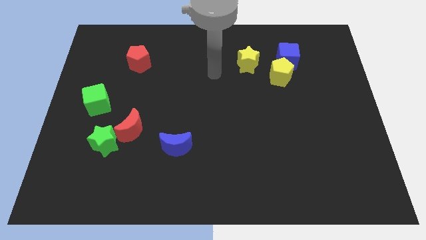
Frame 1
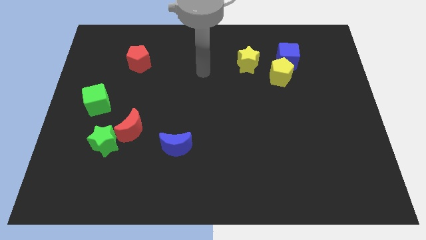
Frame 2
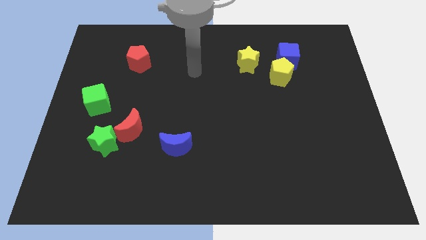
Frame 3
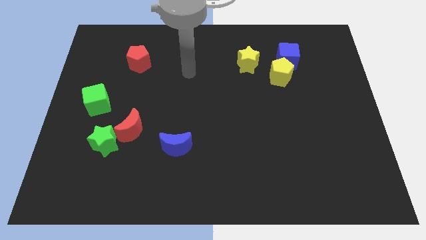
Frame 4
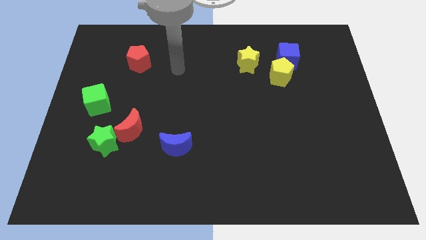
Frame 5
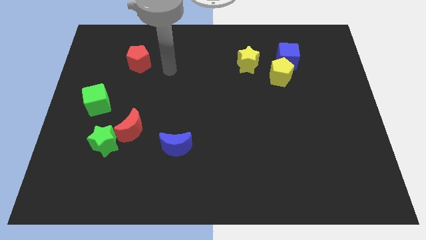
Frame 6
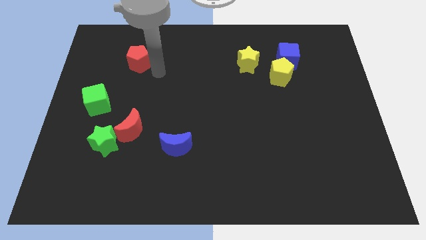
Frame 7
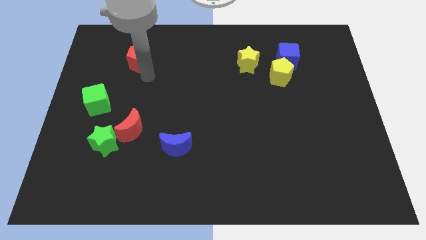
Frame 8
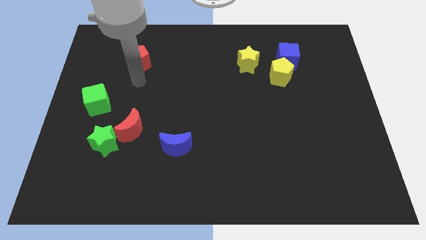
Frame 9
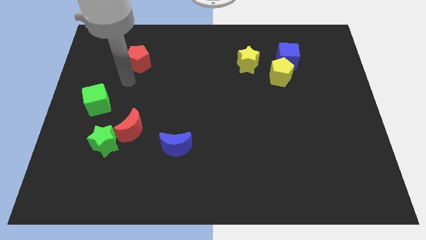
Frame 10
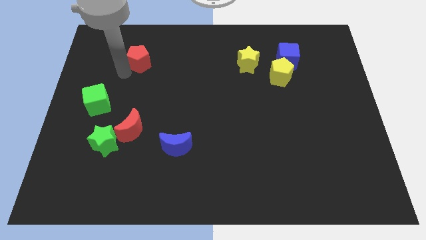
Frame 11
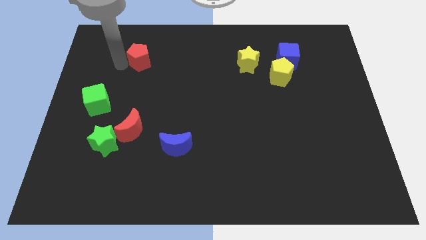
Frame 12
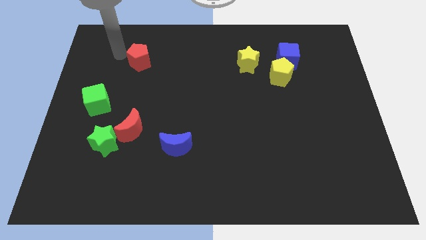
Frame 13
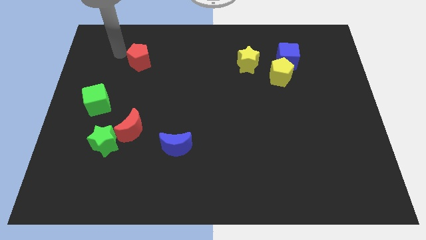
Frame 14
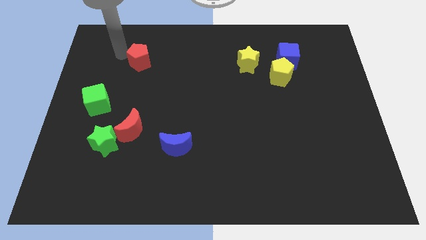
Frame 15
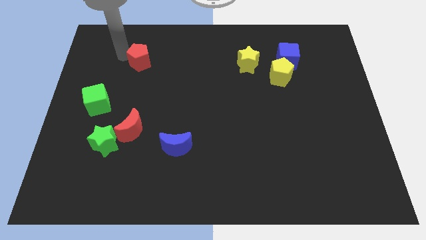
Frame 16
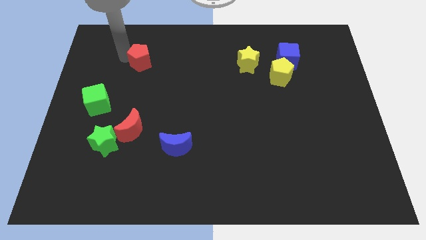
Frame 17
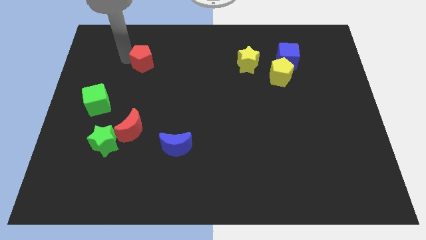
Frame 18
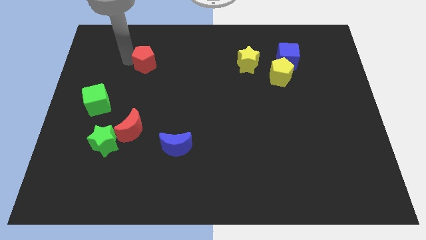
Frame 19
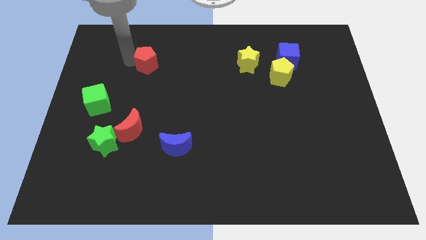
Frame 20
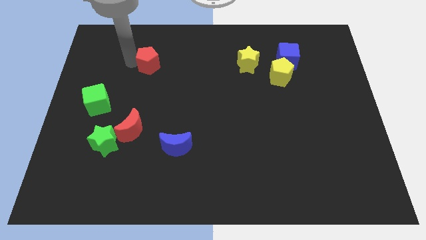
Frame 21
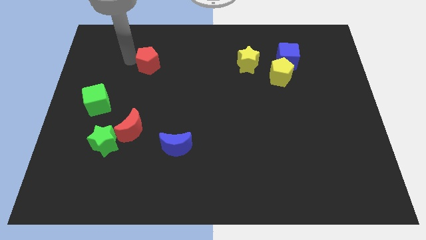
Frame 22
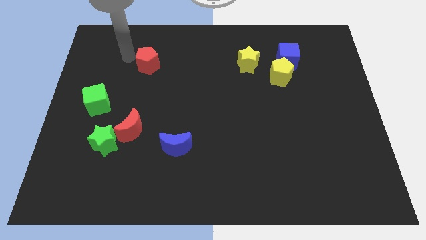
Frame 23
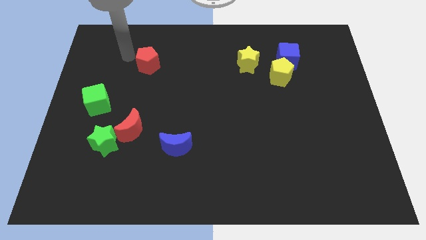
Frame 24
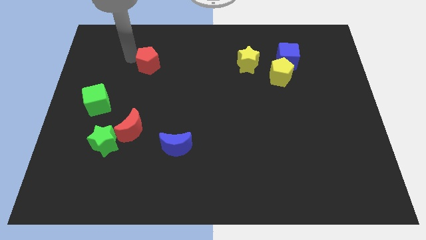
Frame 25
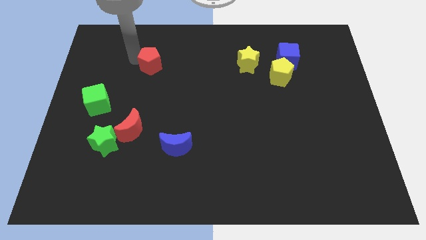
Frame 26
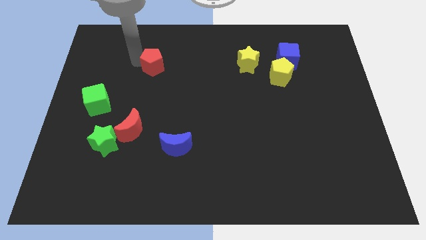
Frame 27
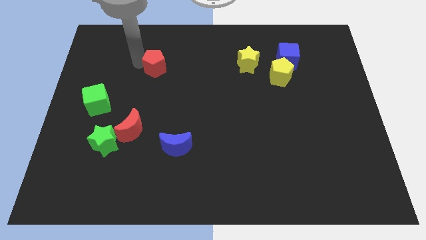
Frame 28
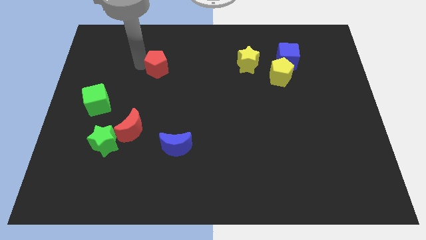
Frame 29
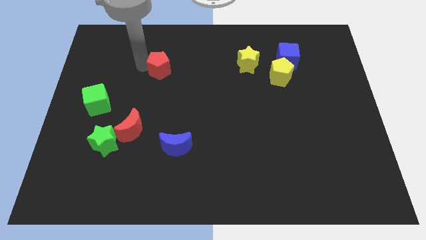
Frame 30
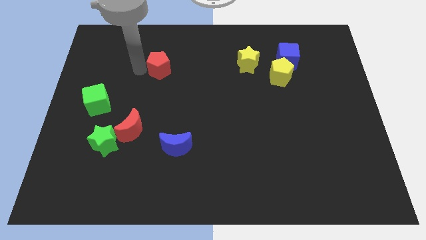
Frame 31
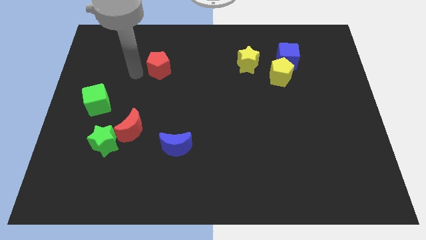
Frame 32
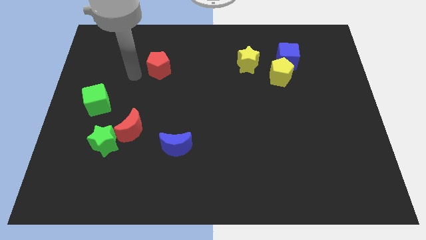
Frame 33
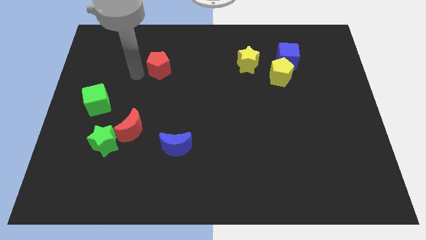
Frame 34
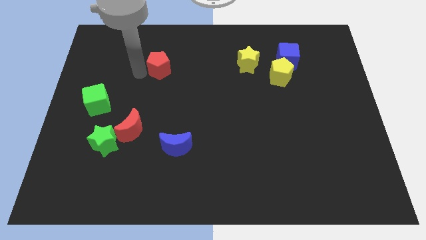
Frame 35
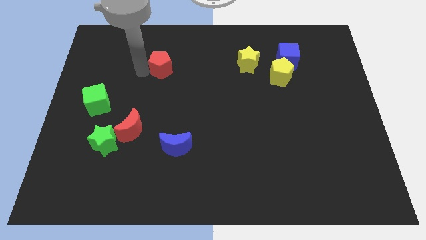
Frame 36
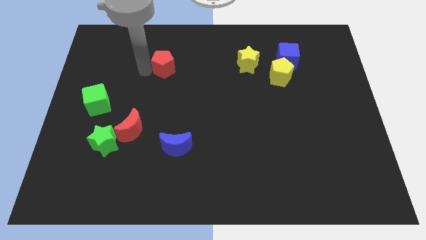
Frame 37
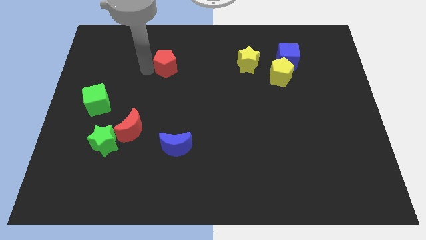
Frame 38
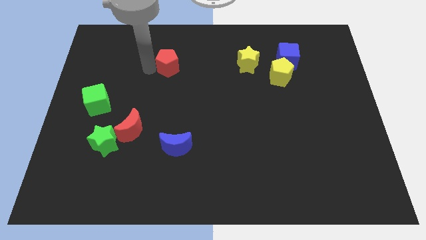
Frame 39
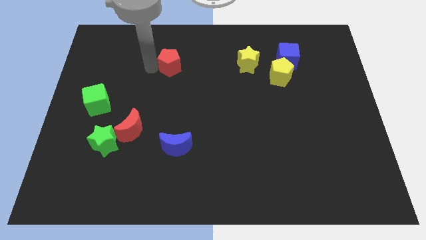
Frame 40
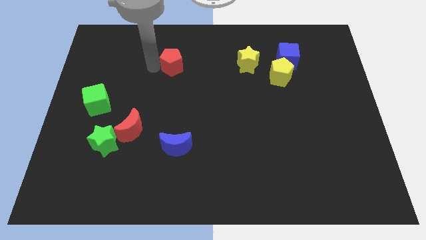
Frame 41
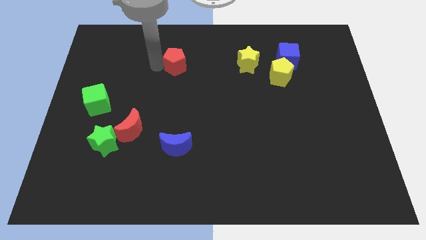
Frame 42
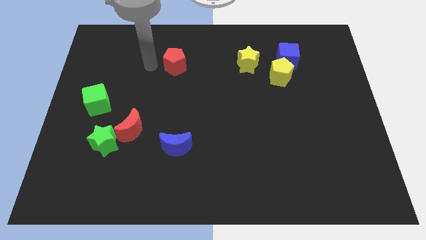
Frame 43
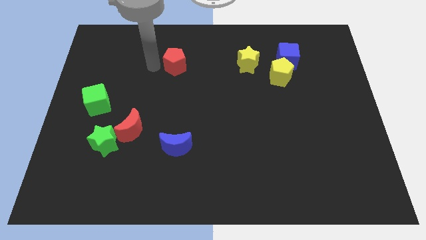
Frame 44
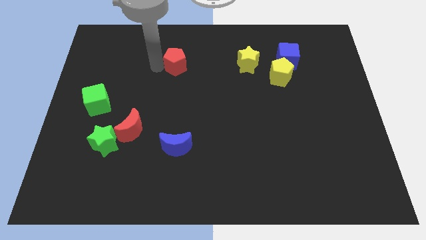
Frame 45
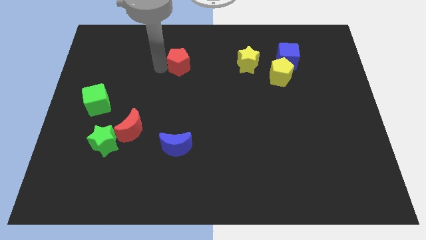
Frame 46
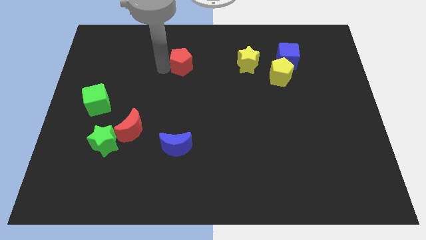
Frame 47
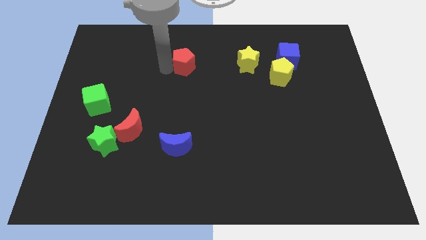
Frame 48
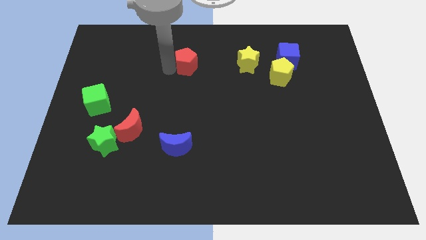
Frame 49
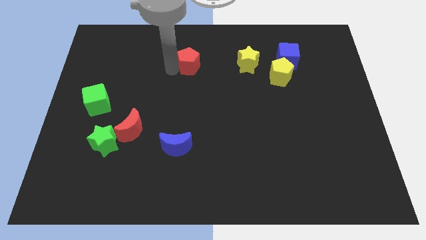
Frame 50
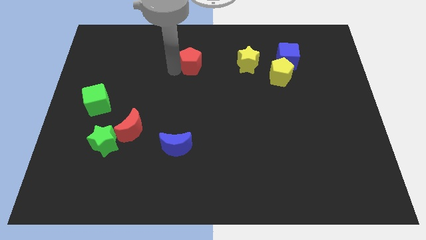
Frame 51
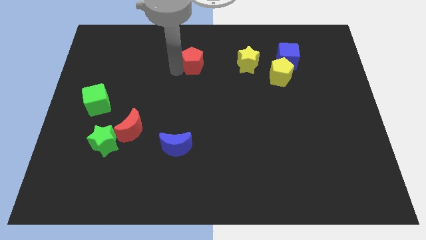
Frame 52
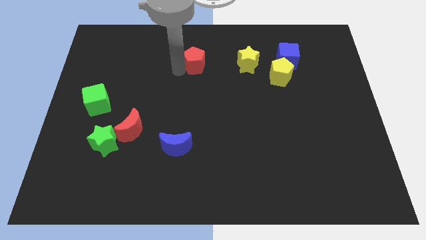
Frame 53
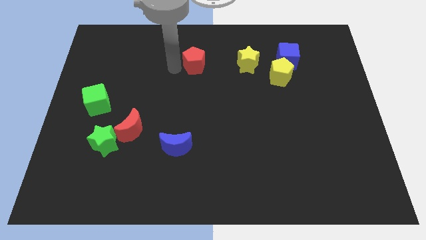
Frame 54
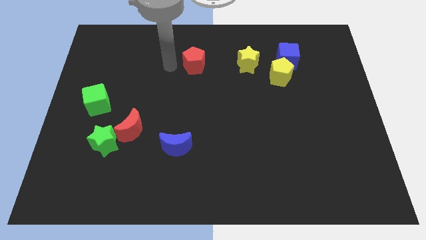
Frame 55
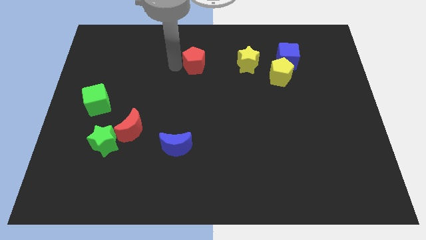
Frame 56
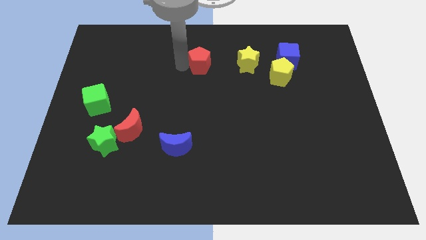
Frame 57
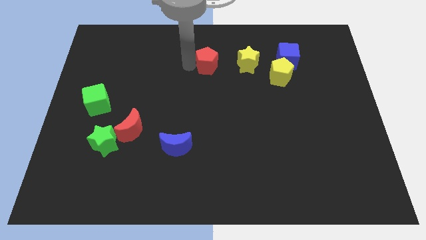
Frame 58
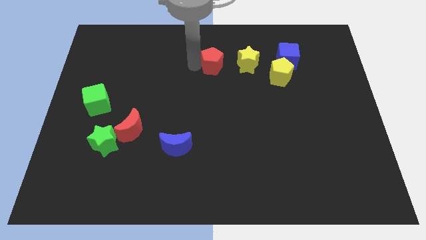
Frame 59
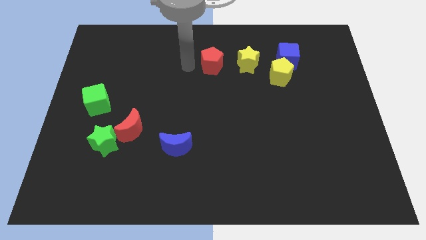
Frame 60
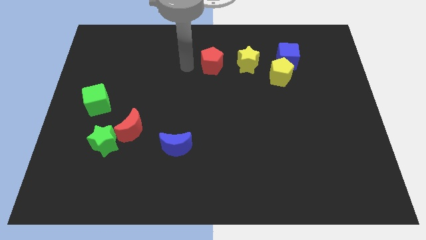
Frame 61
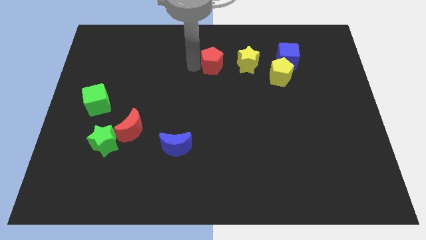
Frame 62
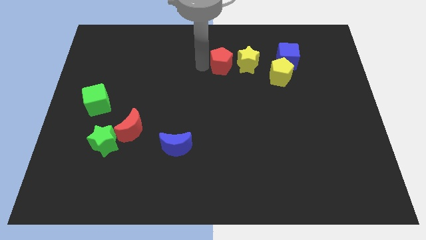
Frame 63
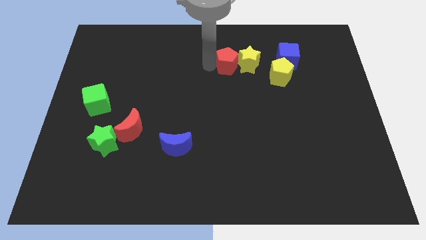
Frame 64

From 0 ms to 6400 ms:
push the red pentagon close to the yellow star

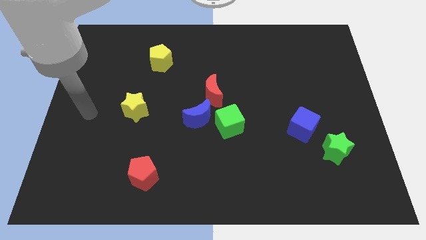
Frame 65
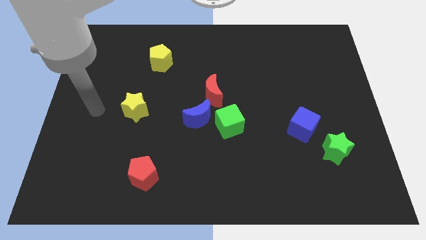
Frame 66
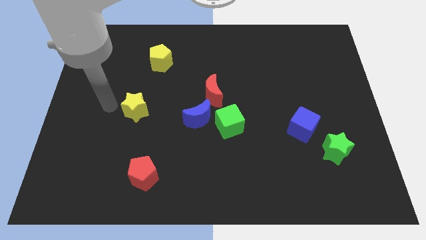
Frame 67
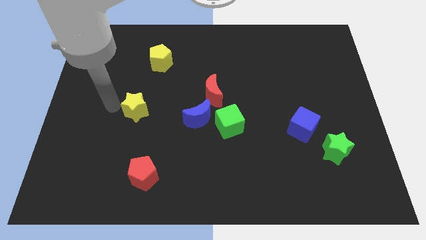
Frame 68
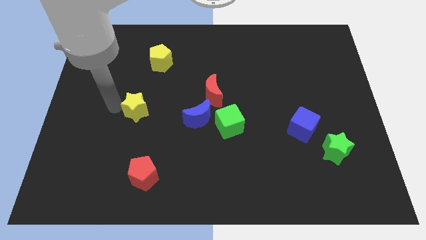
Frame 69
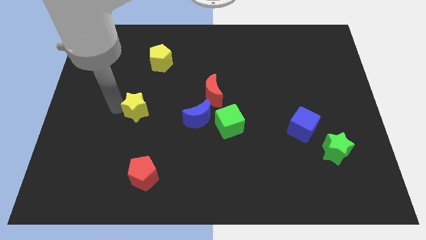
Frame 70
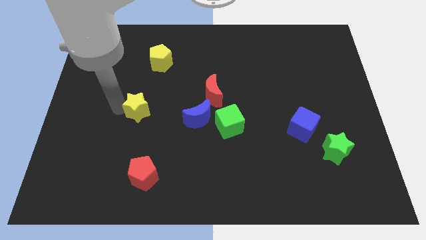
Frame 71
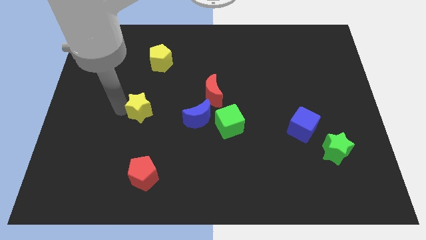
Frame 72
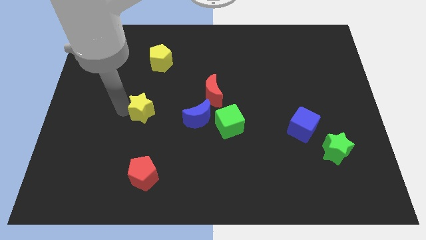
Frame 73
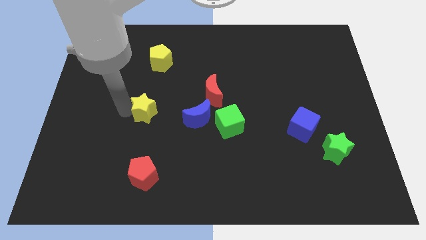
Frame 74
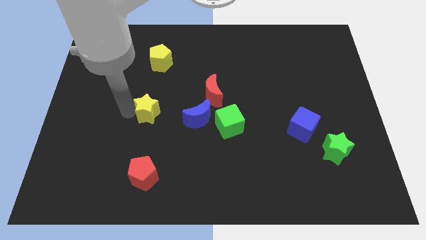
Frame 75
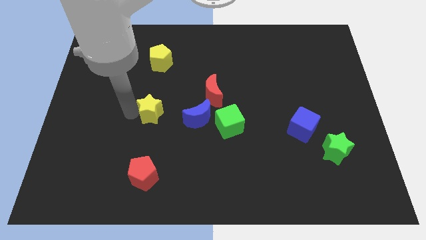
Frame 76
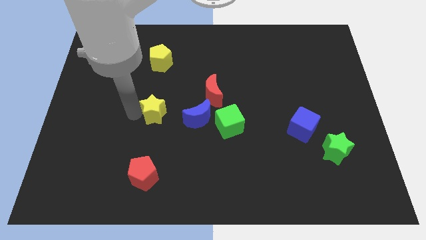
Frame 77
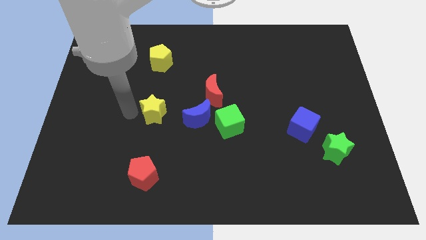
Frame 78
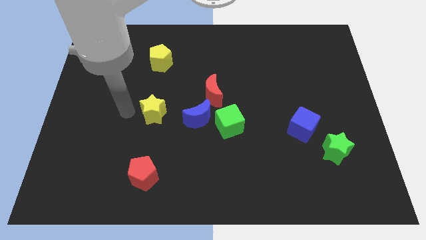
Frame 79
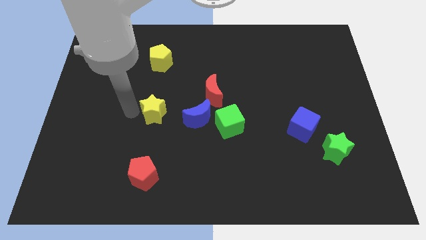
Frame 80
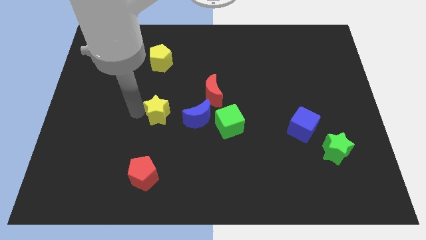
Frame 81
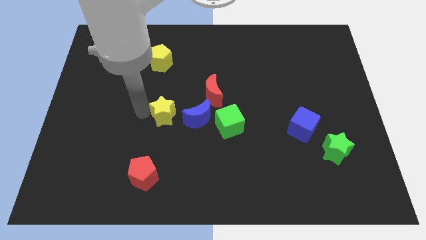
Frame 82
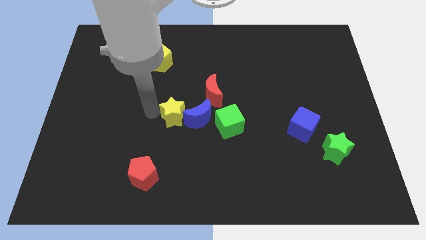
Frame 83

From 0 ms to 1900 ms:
push the yellow star towards the blue moon
